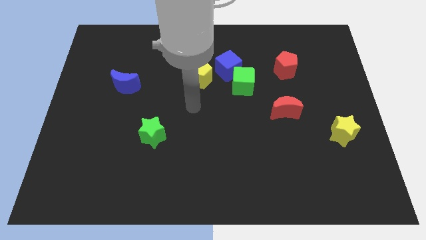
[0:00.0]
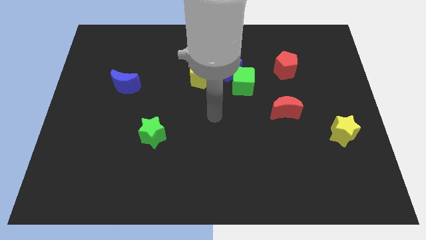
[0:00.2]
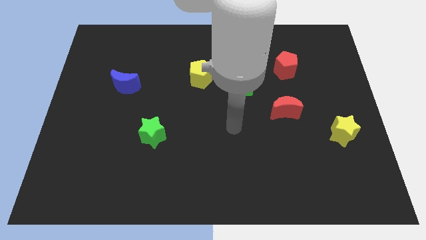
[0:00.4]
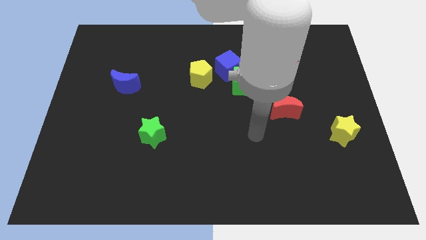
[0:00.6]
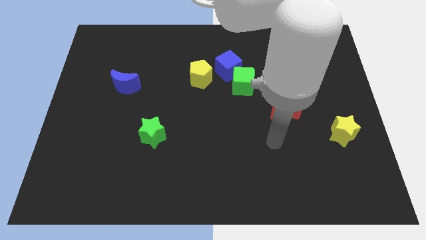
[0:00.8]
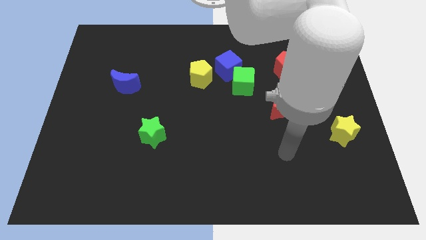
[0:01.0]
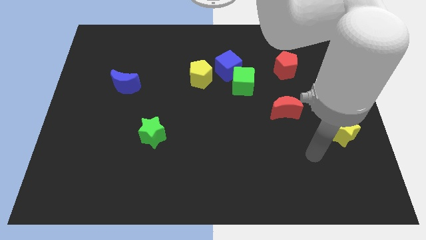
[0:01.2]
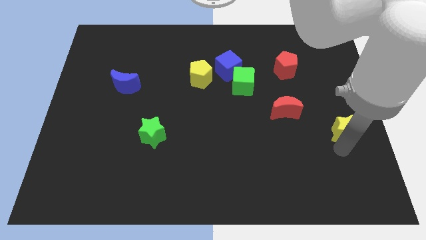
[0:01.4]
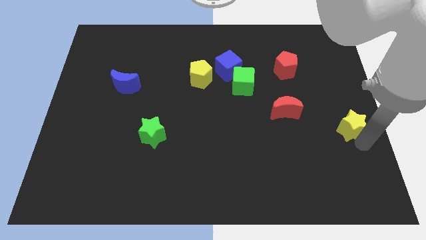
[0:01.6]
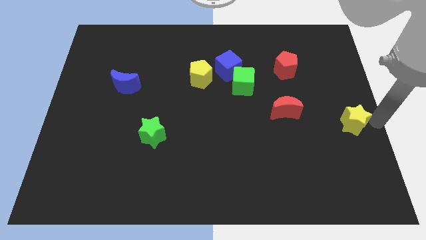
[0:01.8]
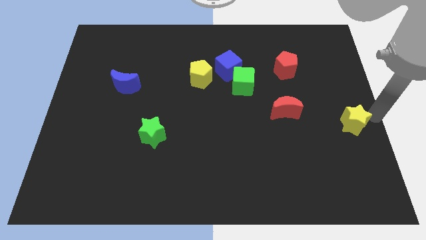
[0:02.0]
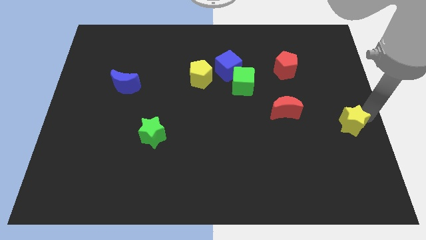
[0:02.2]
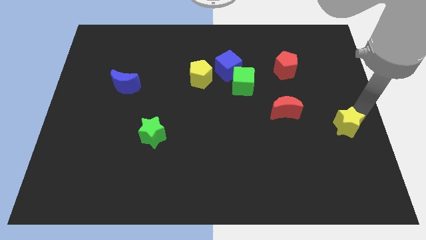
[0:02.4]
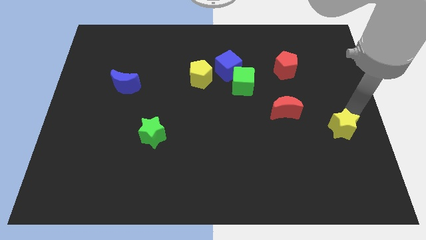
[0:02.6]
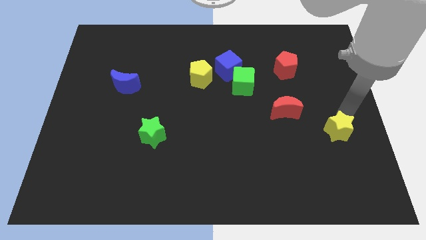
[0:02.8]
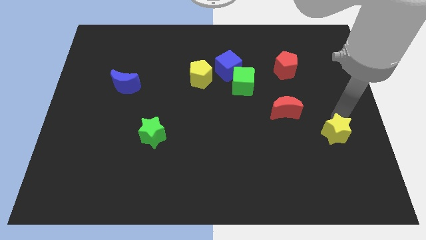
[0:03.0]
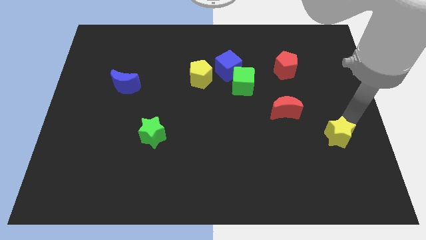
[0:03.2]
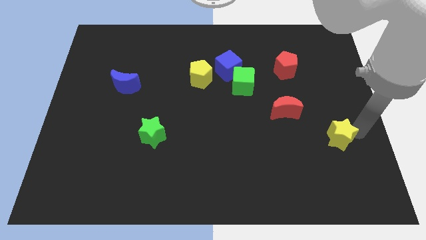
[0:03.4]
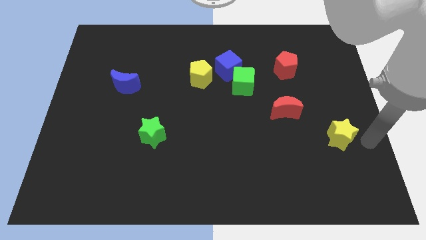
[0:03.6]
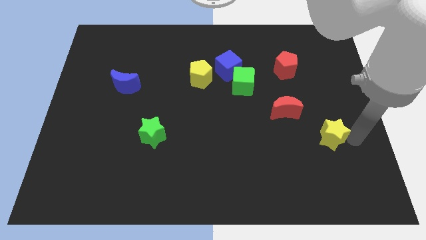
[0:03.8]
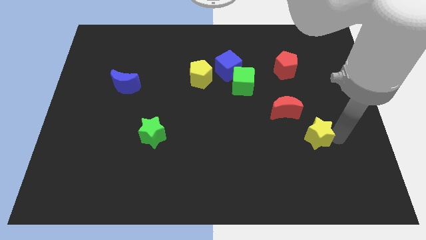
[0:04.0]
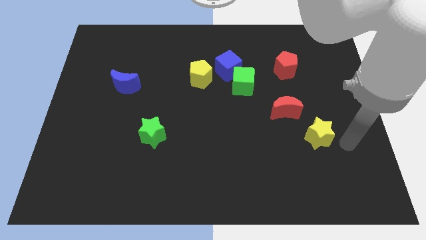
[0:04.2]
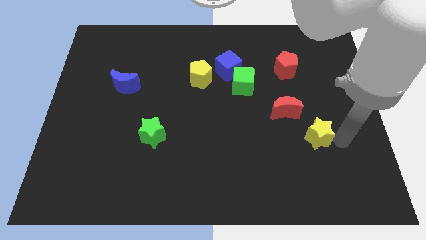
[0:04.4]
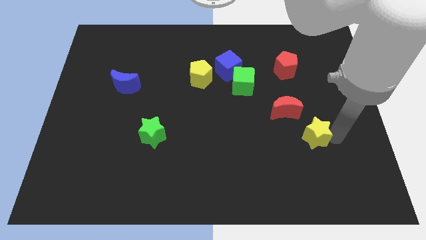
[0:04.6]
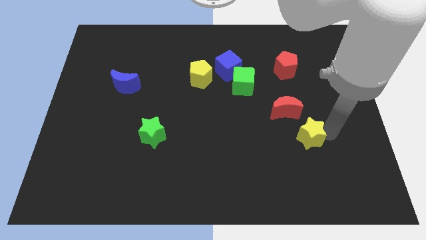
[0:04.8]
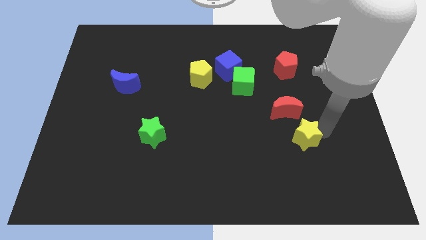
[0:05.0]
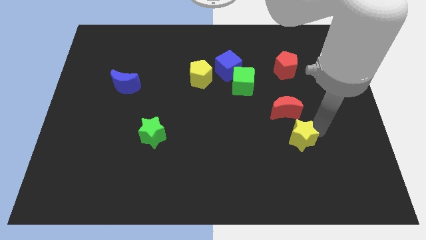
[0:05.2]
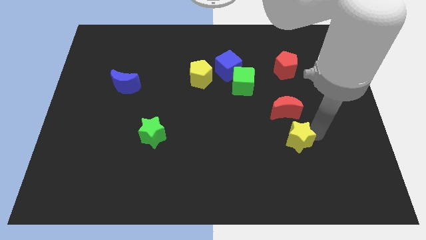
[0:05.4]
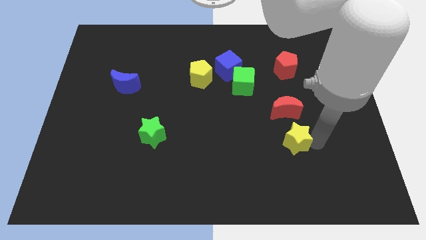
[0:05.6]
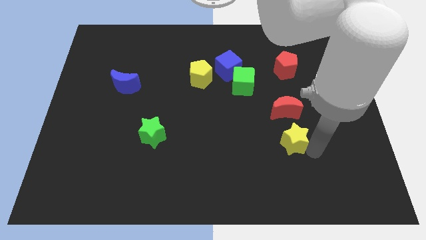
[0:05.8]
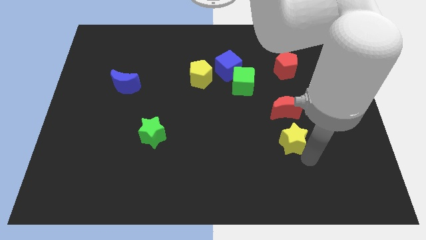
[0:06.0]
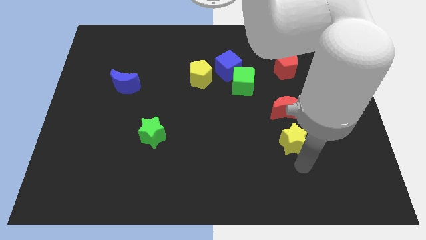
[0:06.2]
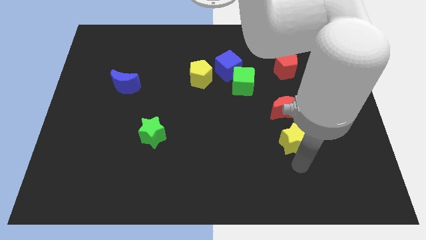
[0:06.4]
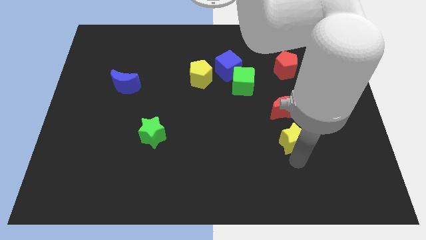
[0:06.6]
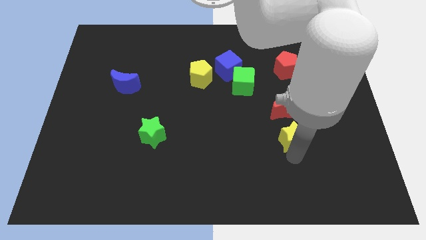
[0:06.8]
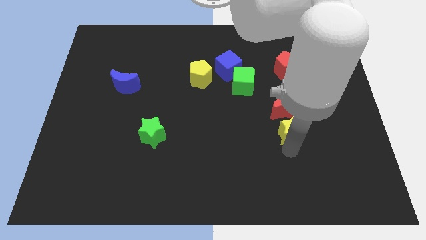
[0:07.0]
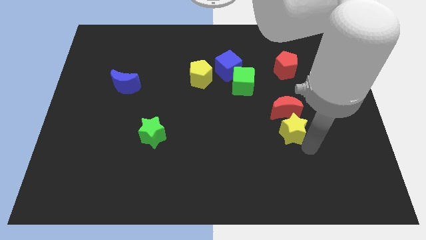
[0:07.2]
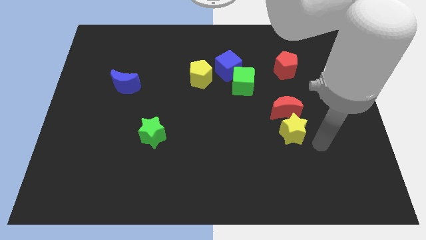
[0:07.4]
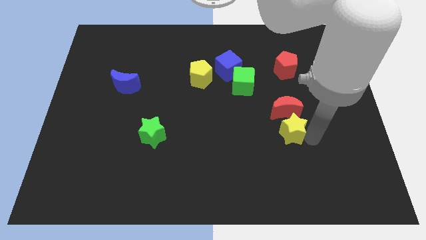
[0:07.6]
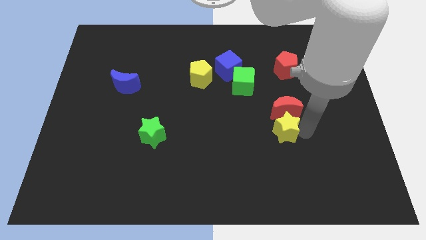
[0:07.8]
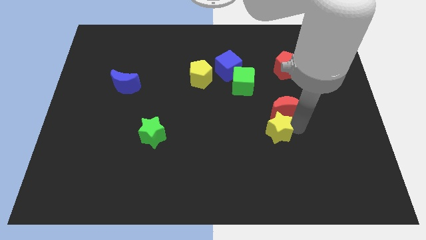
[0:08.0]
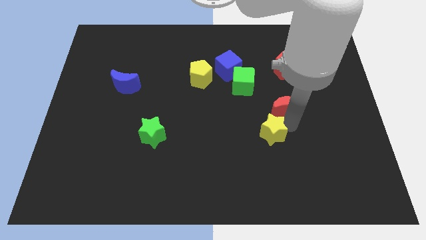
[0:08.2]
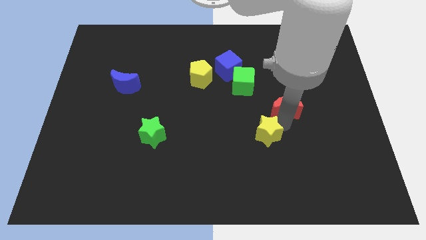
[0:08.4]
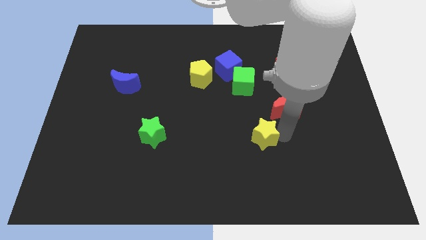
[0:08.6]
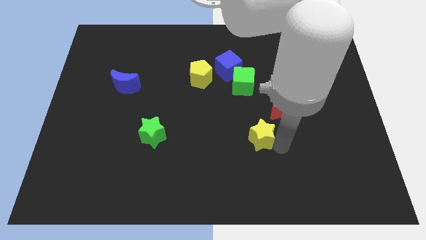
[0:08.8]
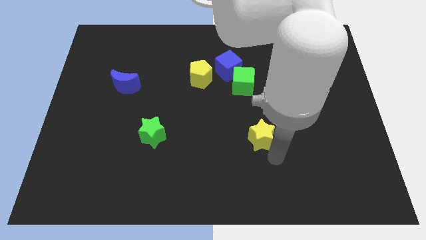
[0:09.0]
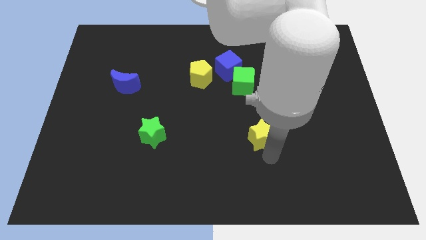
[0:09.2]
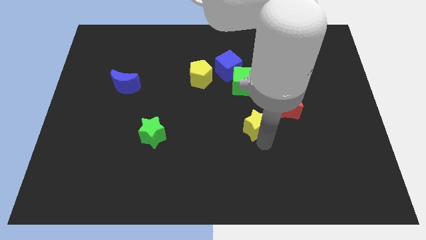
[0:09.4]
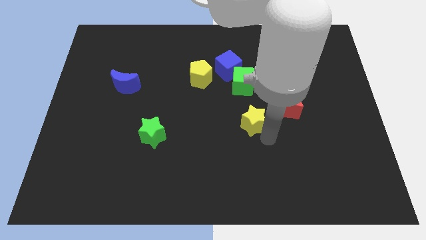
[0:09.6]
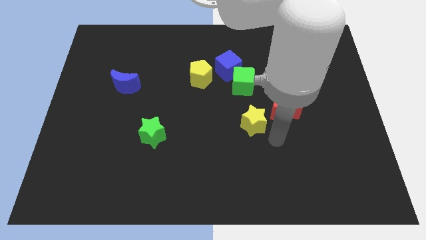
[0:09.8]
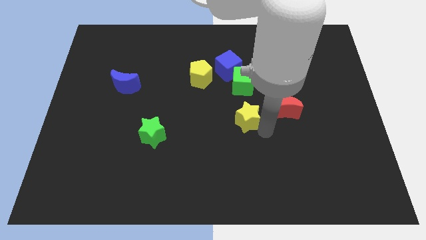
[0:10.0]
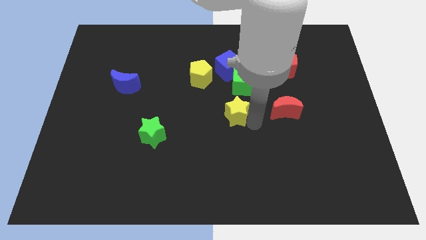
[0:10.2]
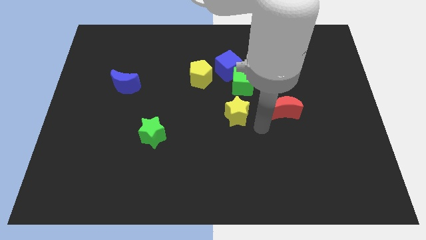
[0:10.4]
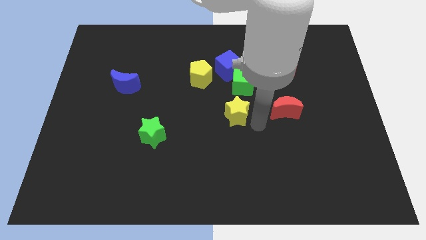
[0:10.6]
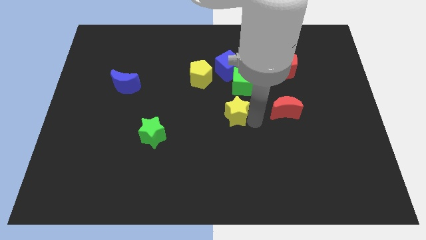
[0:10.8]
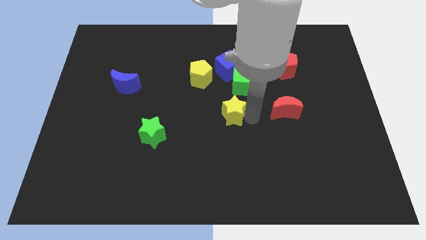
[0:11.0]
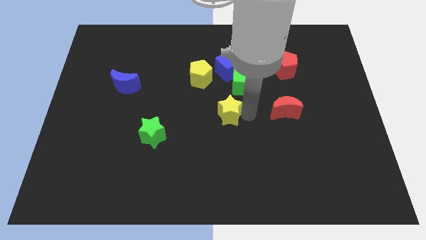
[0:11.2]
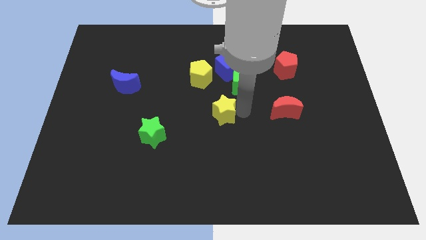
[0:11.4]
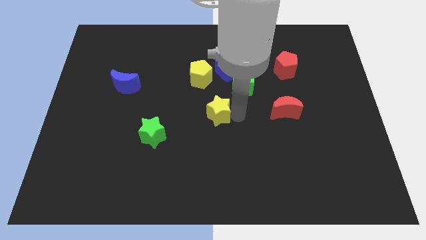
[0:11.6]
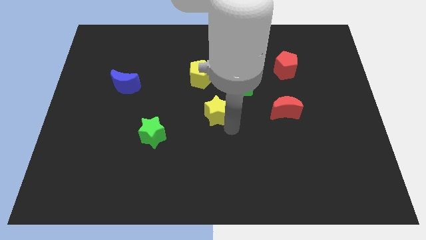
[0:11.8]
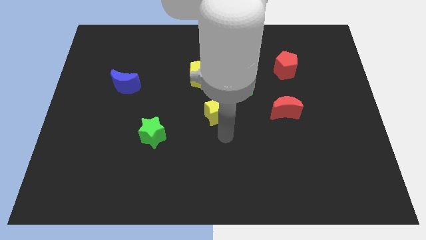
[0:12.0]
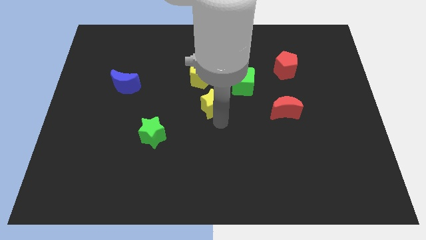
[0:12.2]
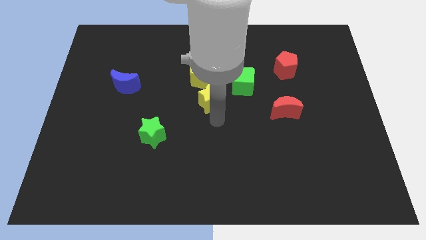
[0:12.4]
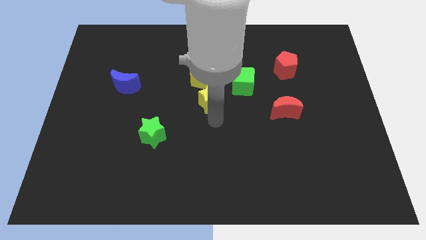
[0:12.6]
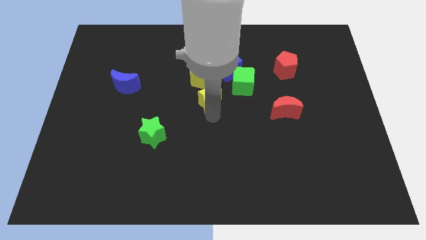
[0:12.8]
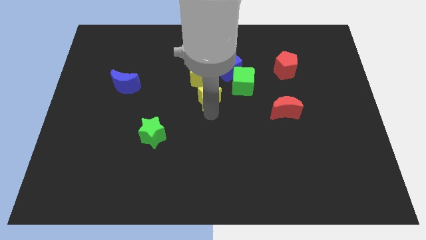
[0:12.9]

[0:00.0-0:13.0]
slide the yellow star to the bottom left of the blue cube

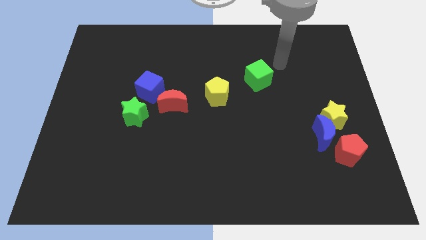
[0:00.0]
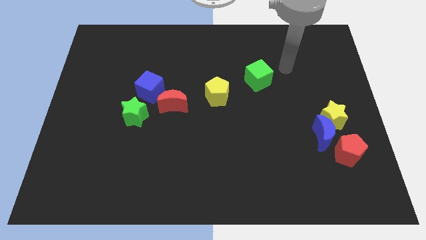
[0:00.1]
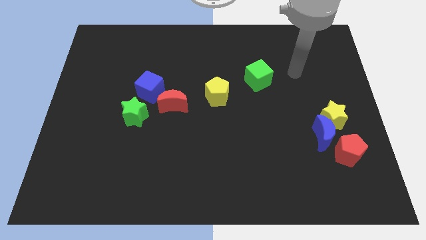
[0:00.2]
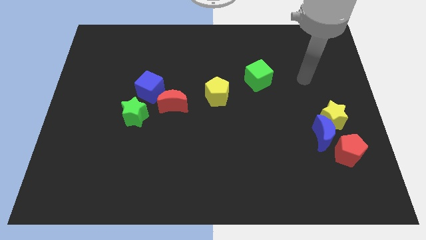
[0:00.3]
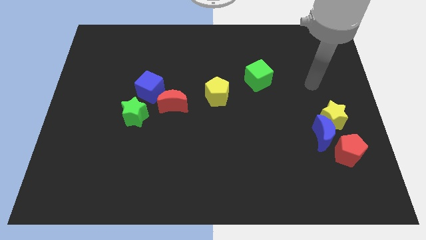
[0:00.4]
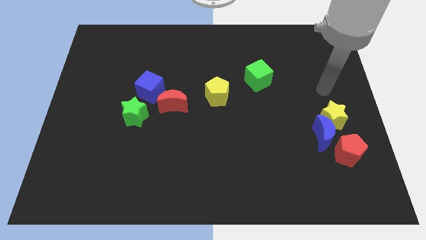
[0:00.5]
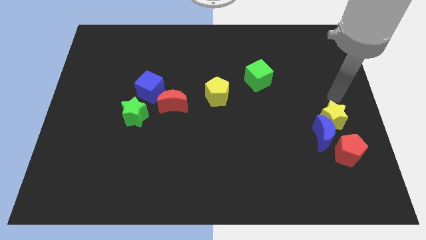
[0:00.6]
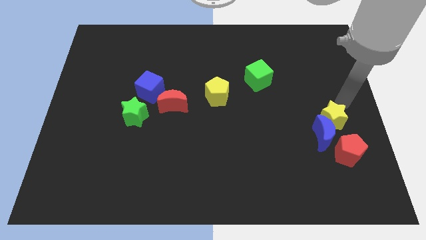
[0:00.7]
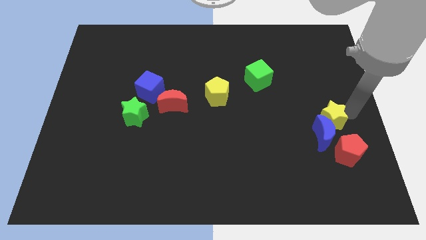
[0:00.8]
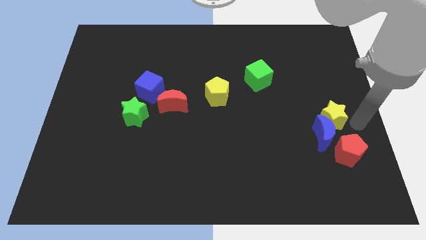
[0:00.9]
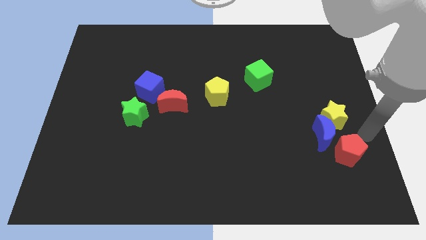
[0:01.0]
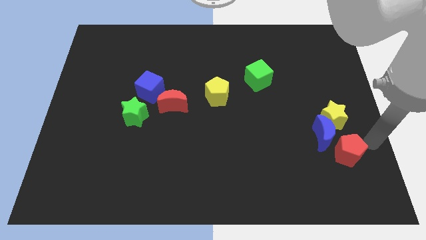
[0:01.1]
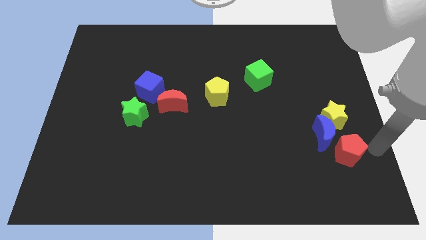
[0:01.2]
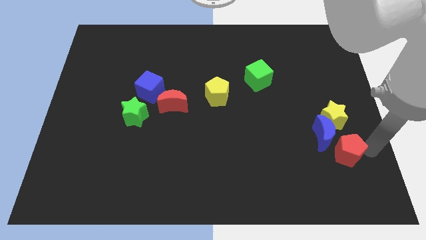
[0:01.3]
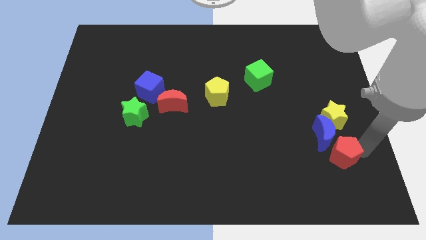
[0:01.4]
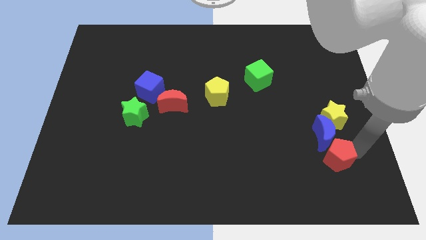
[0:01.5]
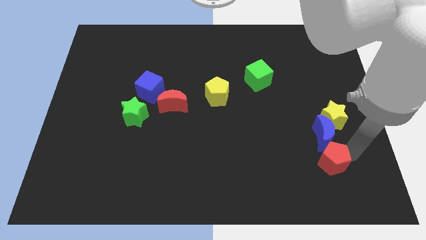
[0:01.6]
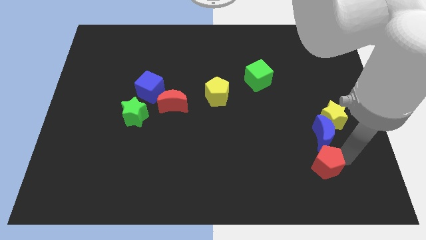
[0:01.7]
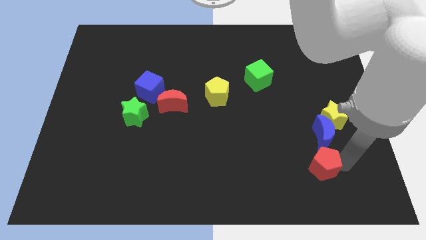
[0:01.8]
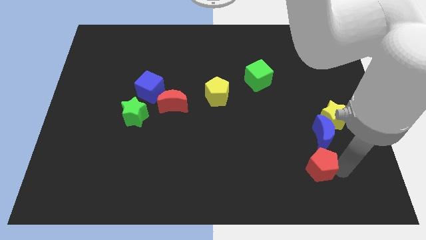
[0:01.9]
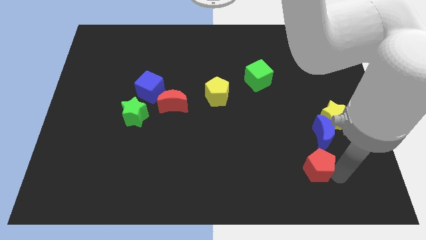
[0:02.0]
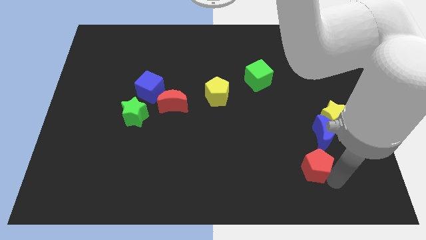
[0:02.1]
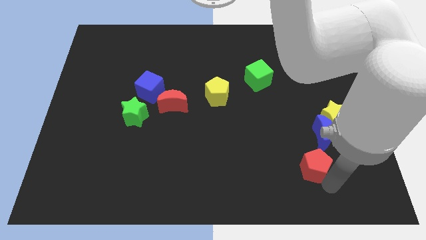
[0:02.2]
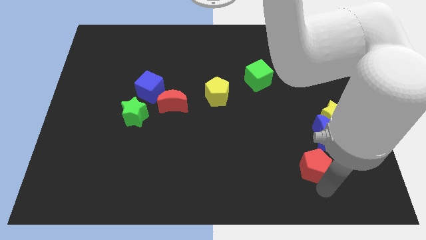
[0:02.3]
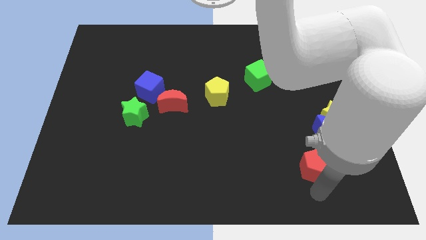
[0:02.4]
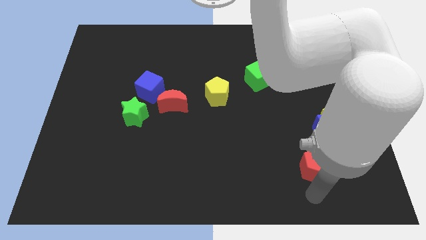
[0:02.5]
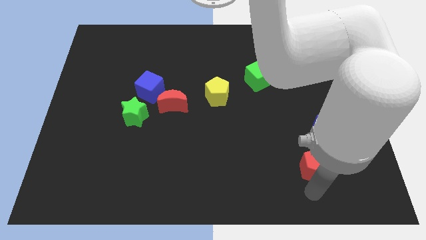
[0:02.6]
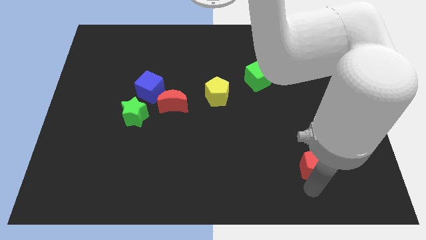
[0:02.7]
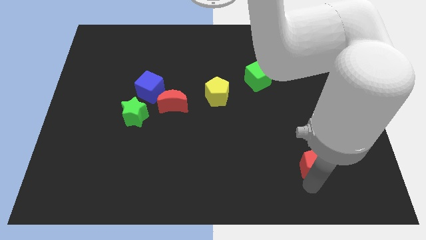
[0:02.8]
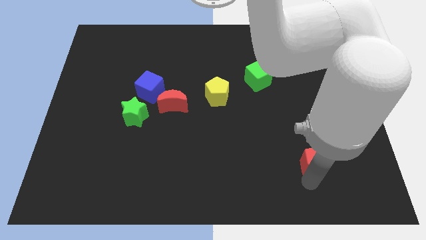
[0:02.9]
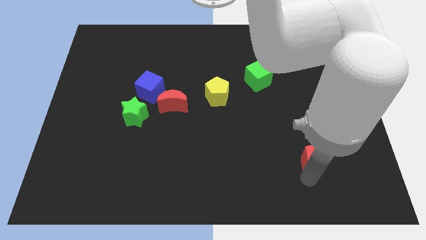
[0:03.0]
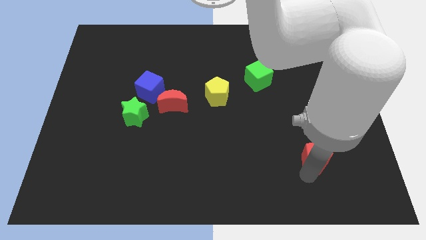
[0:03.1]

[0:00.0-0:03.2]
push the red pentagon diagonally down and to the left of the yellow star
